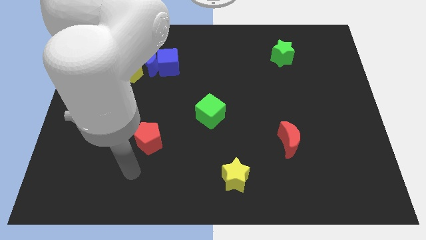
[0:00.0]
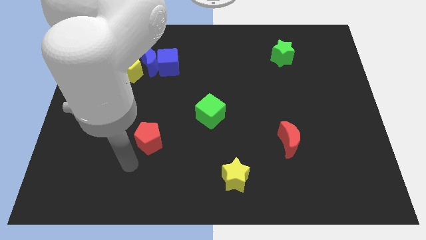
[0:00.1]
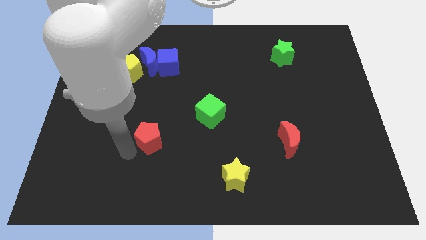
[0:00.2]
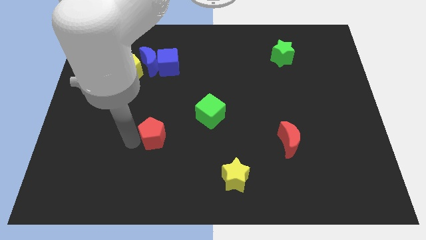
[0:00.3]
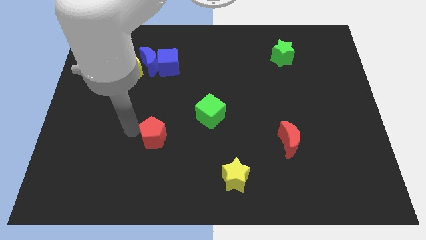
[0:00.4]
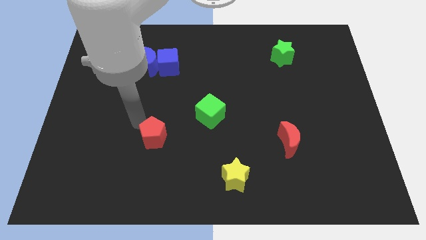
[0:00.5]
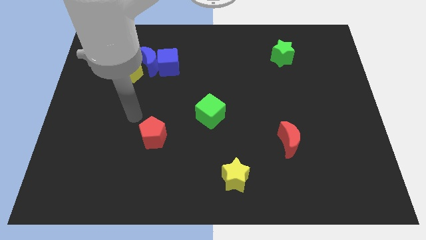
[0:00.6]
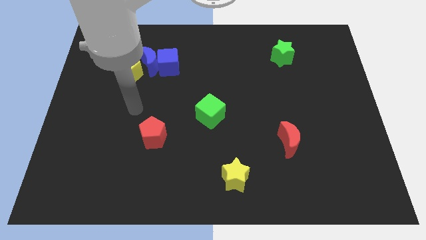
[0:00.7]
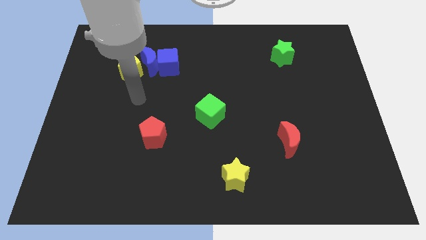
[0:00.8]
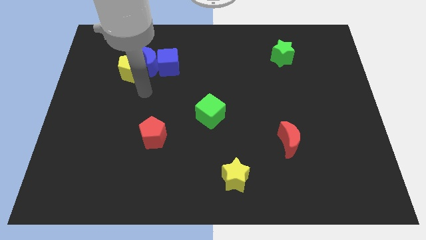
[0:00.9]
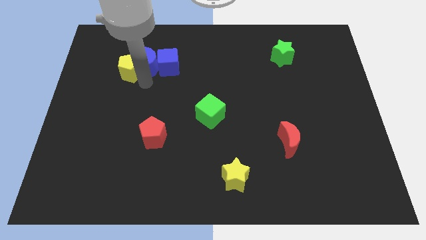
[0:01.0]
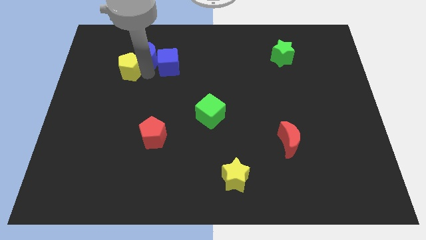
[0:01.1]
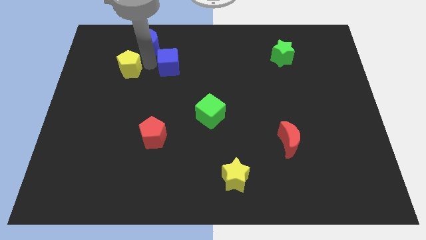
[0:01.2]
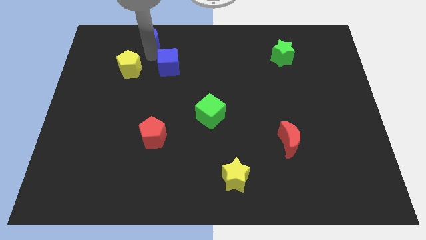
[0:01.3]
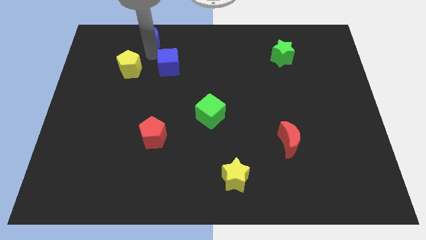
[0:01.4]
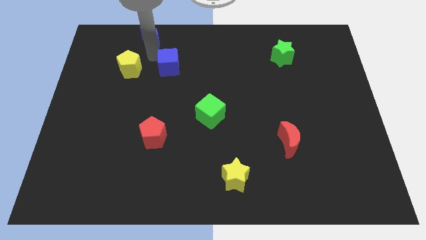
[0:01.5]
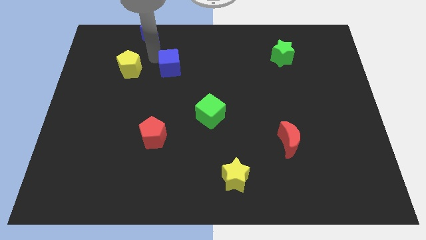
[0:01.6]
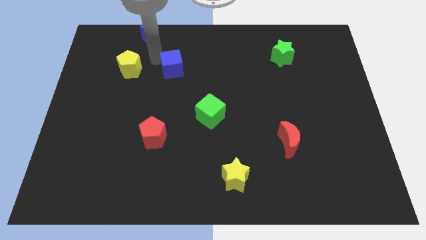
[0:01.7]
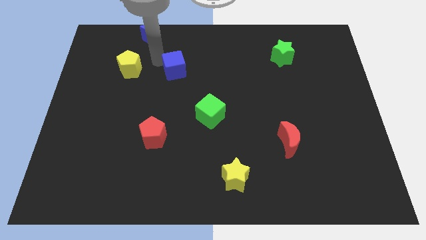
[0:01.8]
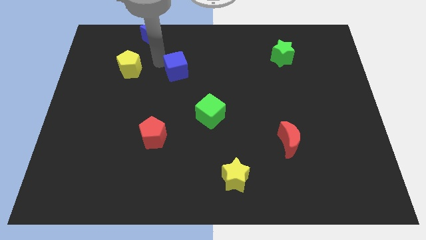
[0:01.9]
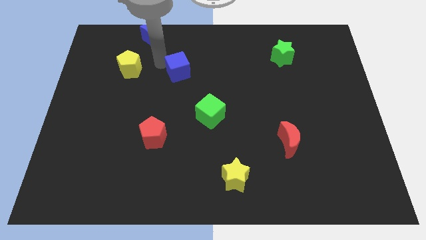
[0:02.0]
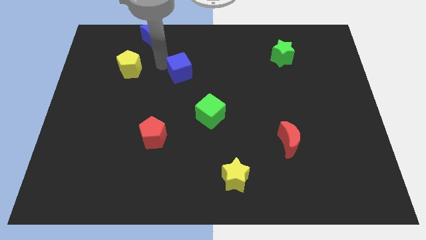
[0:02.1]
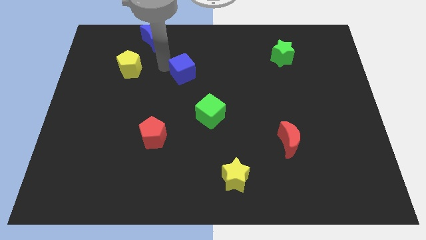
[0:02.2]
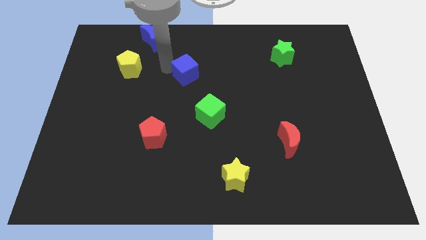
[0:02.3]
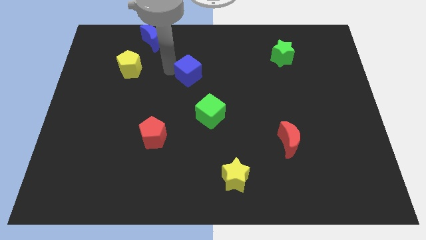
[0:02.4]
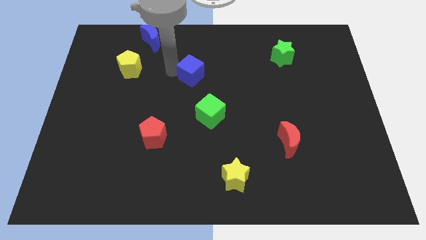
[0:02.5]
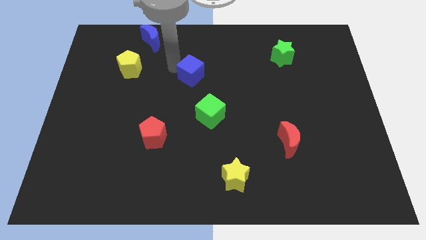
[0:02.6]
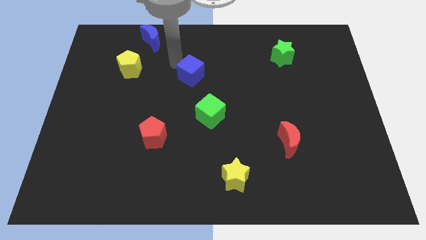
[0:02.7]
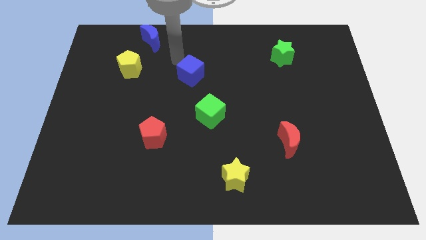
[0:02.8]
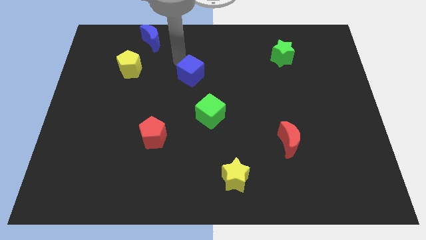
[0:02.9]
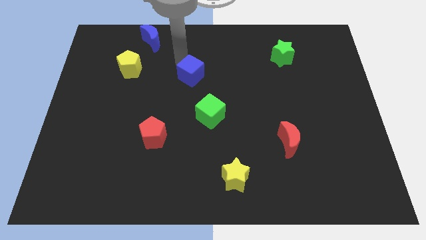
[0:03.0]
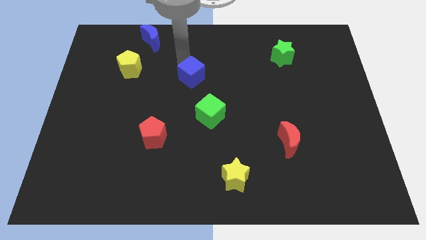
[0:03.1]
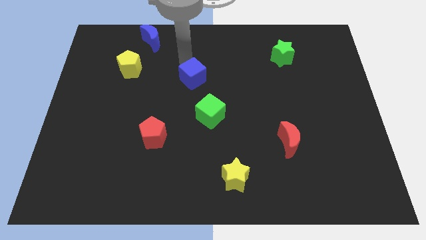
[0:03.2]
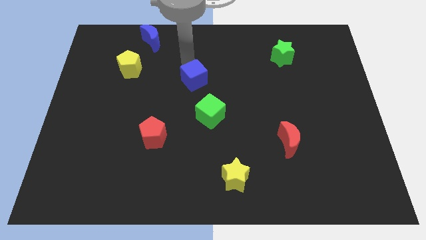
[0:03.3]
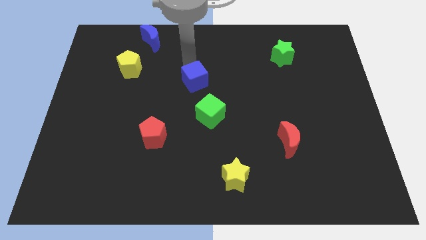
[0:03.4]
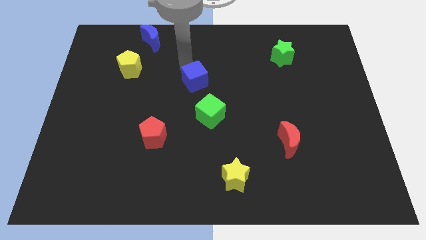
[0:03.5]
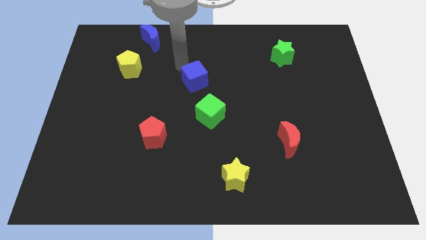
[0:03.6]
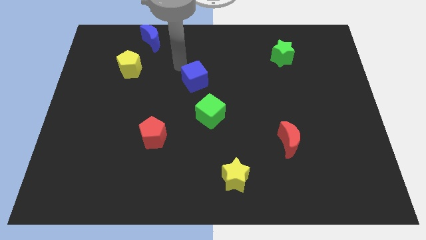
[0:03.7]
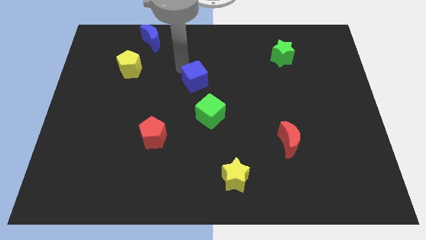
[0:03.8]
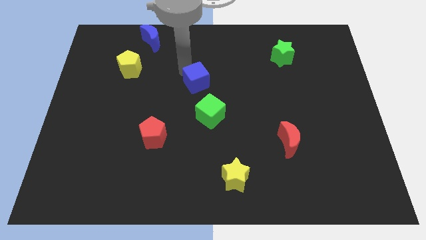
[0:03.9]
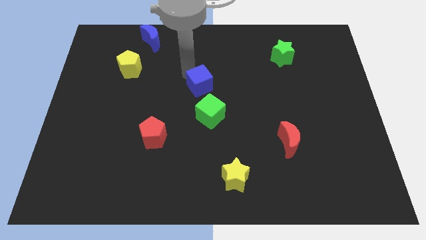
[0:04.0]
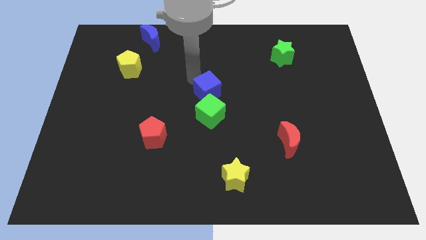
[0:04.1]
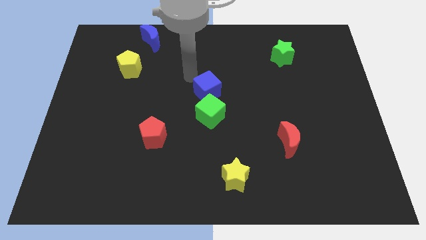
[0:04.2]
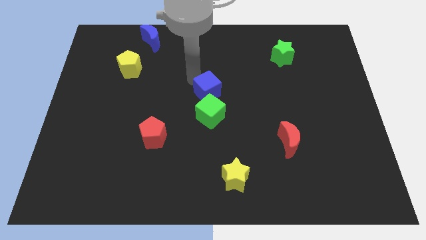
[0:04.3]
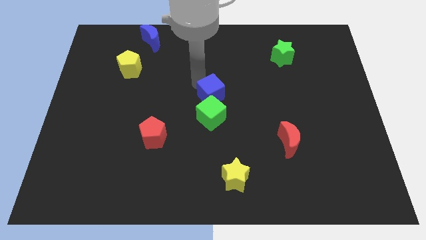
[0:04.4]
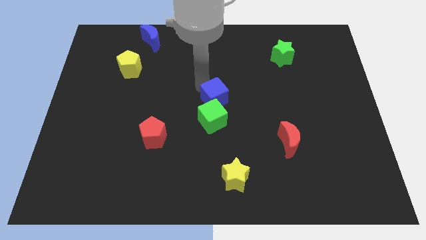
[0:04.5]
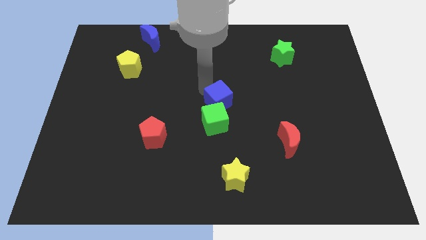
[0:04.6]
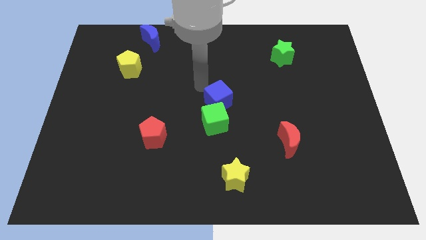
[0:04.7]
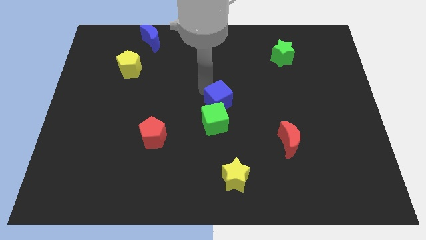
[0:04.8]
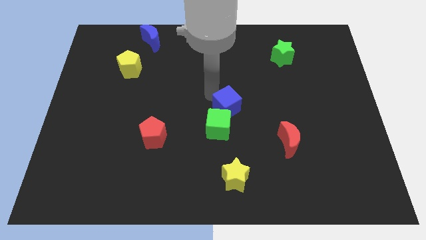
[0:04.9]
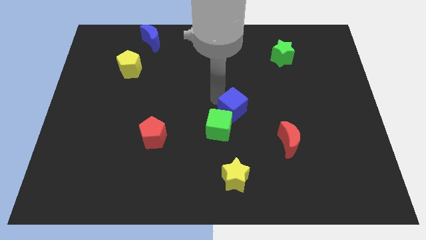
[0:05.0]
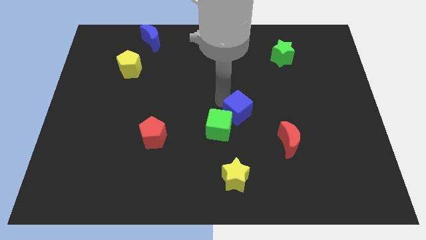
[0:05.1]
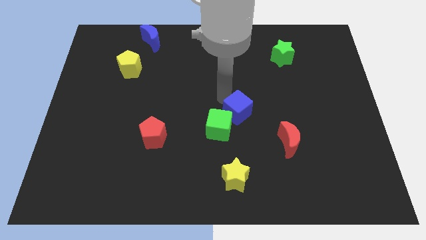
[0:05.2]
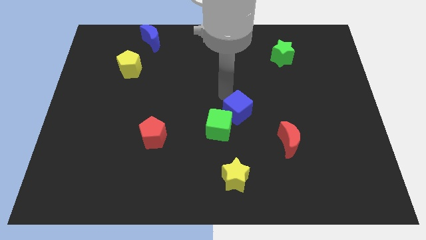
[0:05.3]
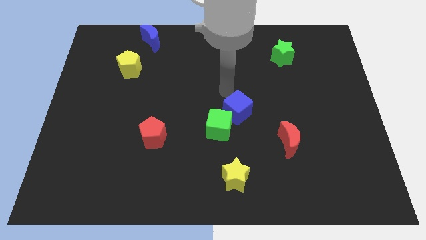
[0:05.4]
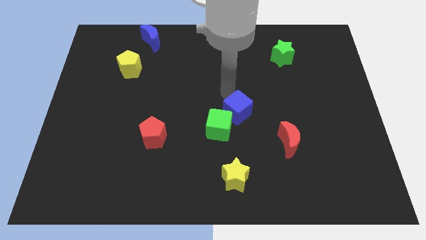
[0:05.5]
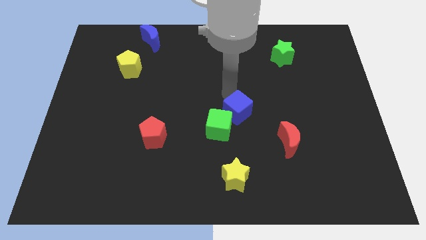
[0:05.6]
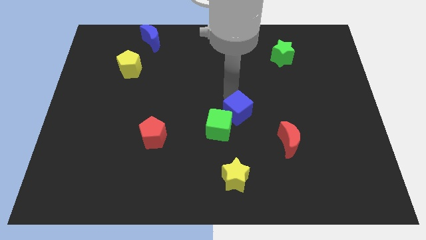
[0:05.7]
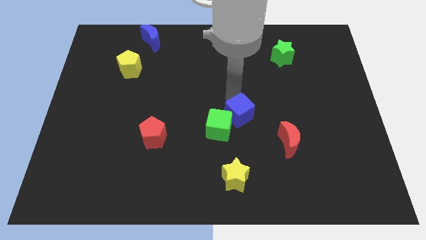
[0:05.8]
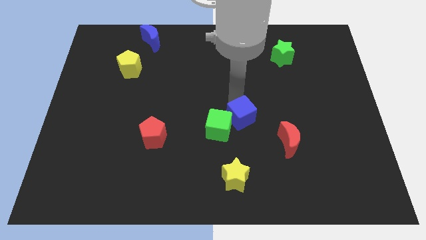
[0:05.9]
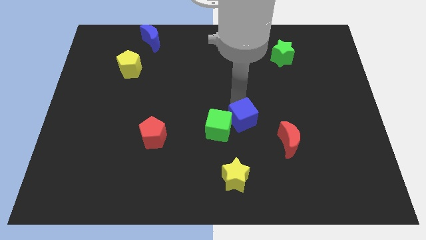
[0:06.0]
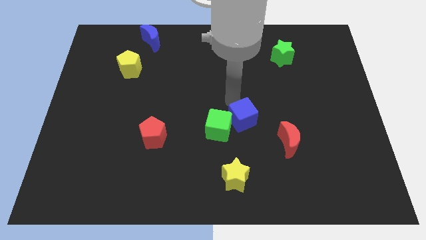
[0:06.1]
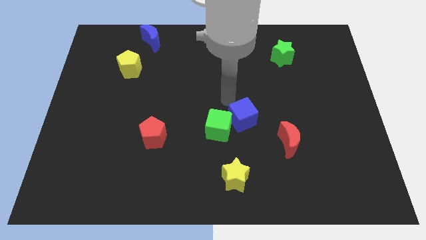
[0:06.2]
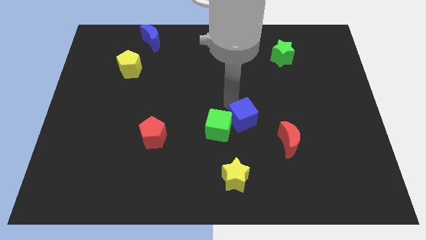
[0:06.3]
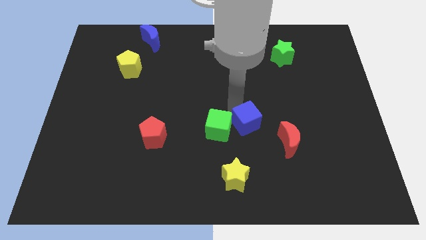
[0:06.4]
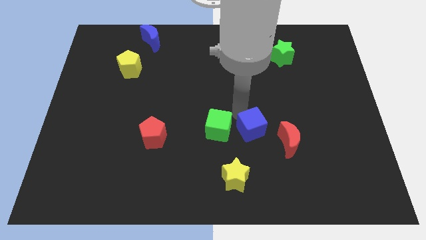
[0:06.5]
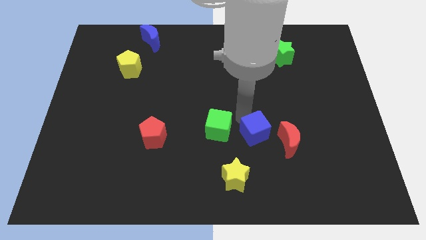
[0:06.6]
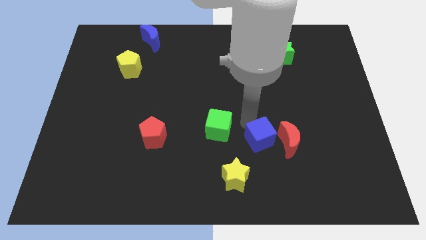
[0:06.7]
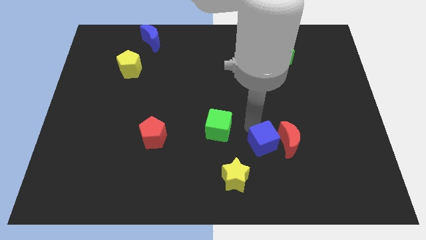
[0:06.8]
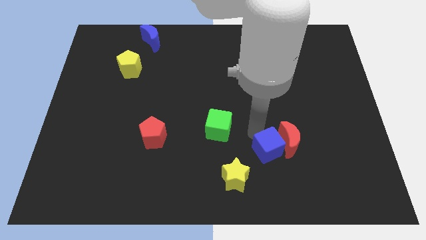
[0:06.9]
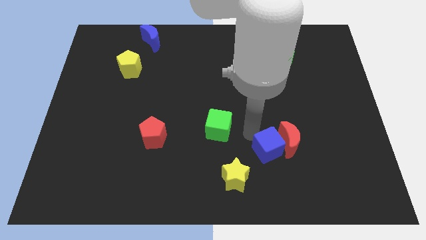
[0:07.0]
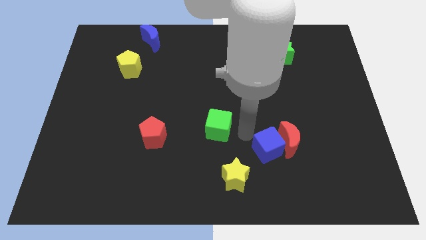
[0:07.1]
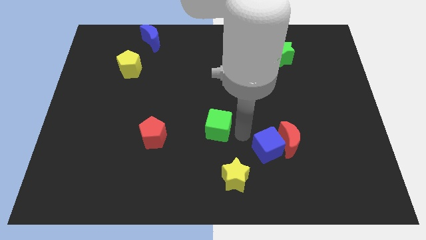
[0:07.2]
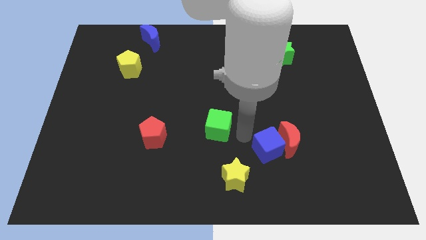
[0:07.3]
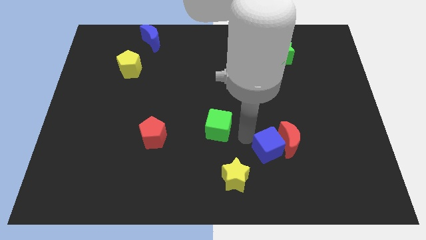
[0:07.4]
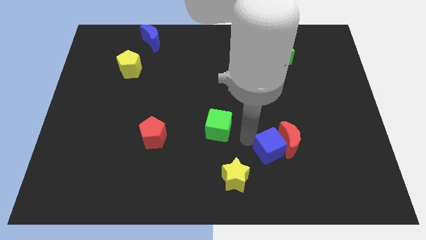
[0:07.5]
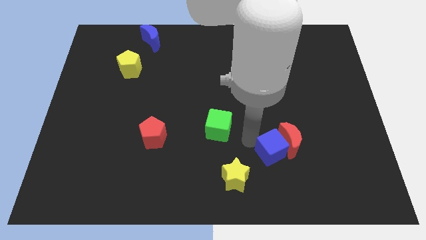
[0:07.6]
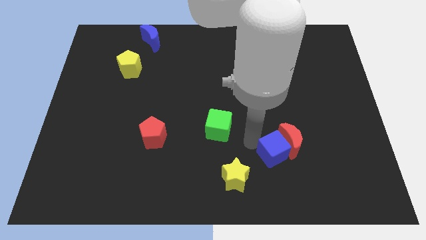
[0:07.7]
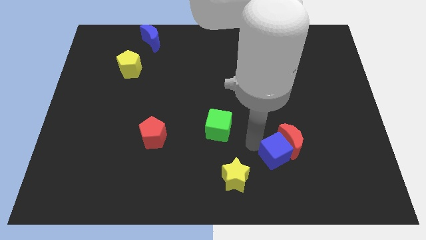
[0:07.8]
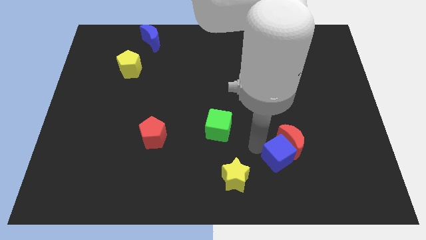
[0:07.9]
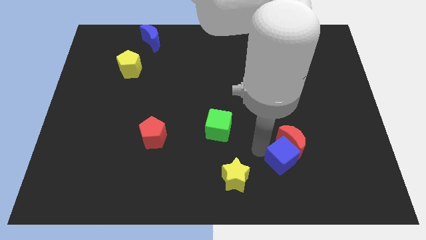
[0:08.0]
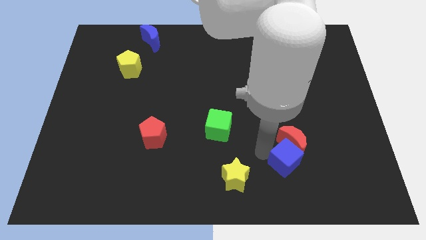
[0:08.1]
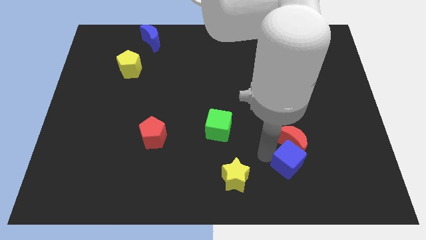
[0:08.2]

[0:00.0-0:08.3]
push the blue cube diagonally down and to the right of the red moon

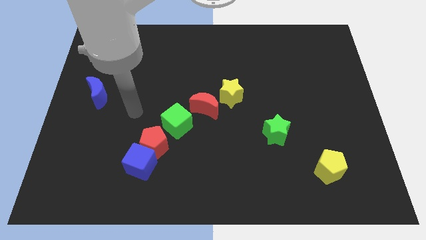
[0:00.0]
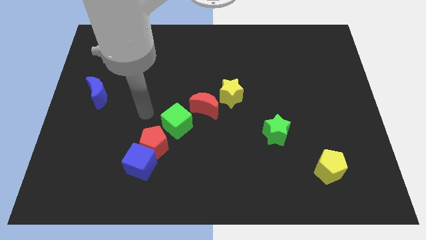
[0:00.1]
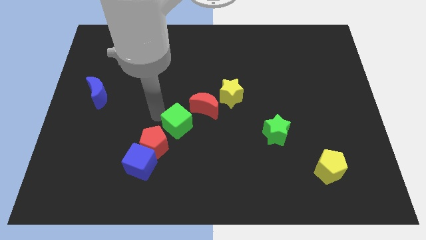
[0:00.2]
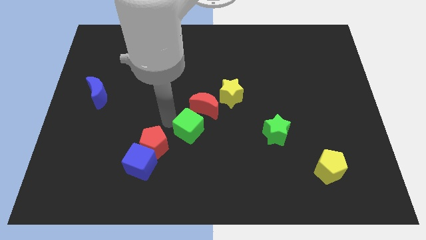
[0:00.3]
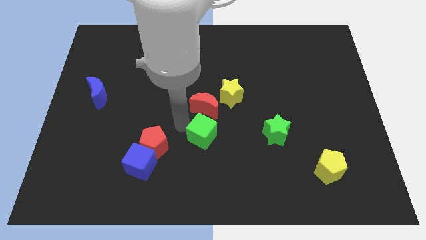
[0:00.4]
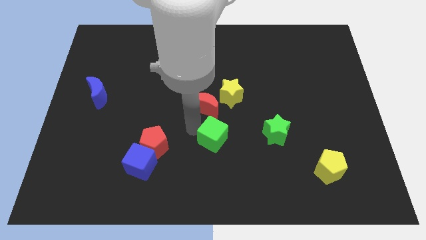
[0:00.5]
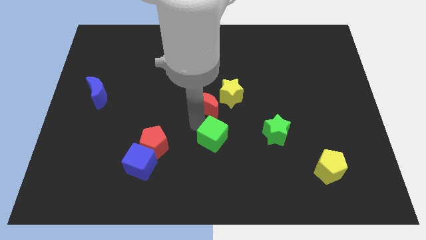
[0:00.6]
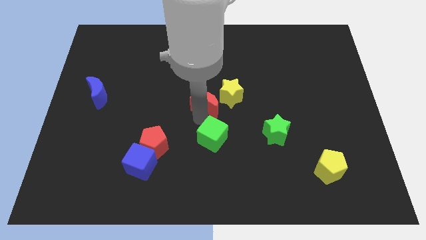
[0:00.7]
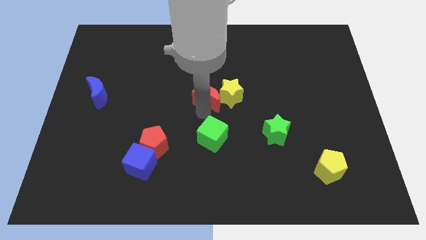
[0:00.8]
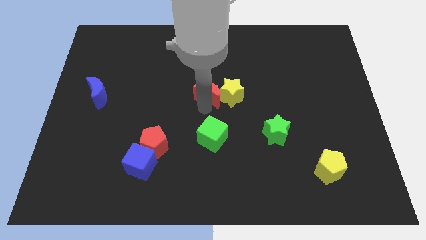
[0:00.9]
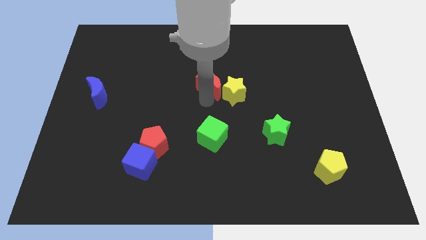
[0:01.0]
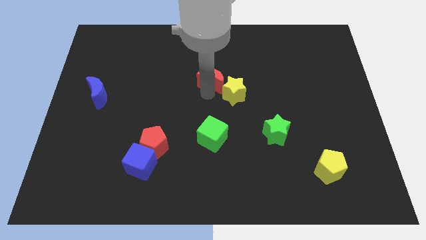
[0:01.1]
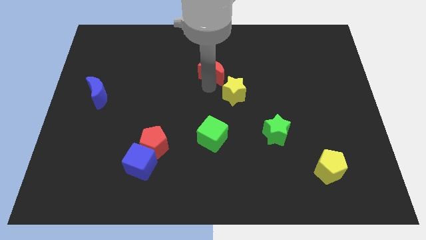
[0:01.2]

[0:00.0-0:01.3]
put the red moon above the yellow star
